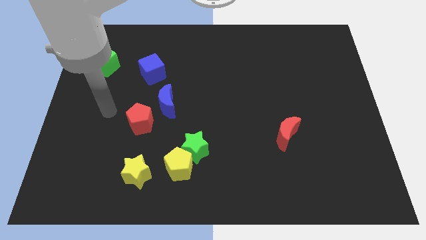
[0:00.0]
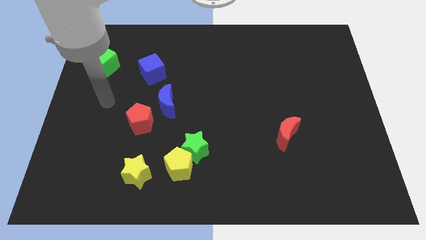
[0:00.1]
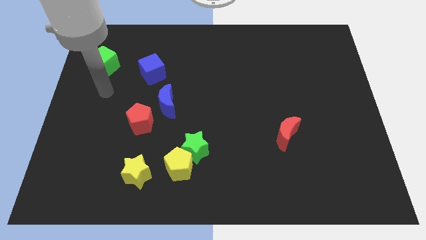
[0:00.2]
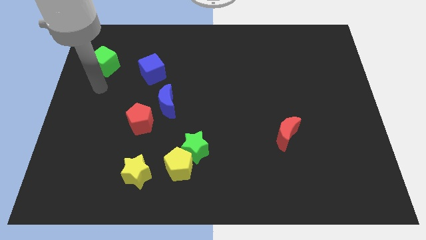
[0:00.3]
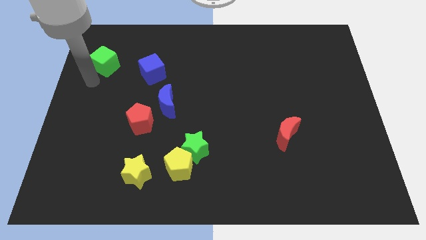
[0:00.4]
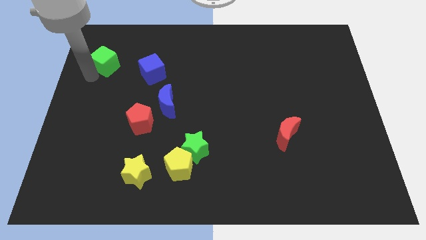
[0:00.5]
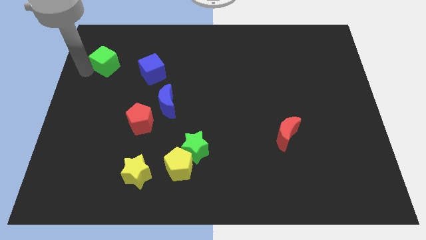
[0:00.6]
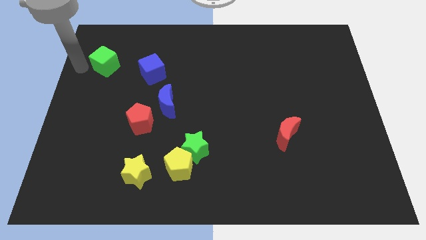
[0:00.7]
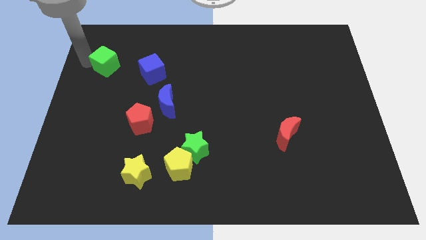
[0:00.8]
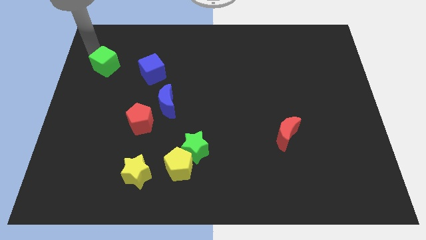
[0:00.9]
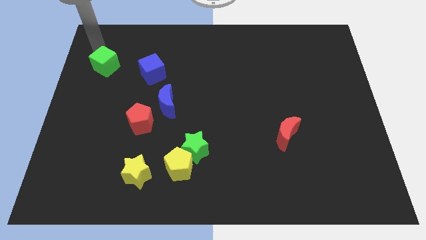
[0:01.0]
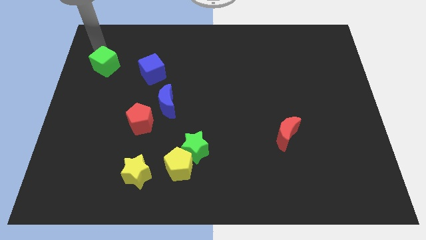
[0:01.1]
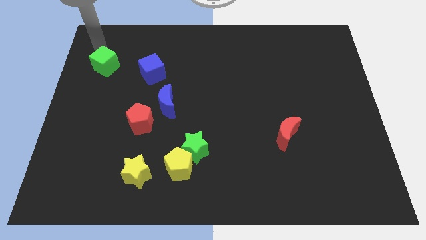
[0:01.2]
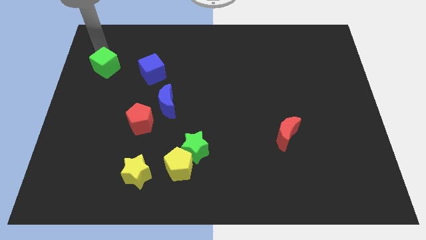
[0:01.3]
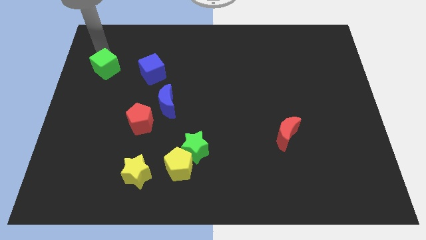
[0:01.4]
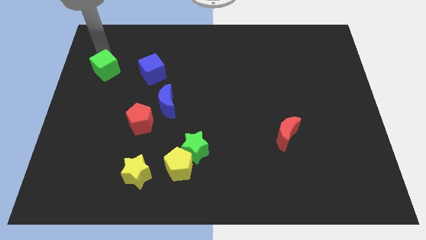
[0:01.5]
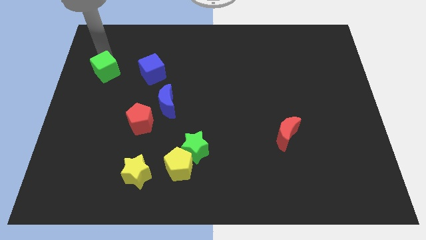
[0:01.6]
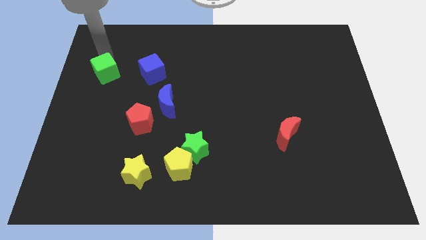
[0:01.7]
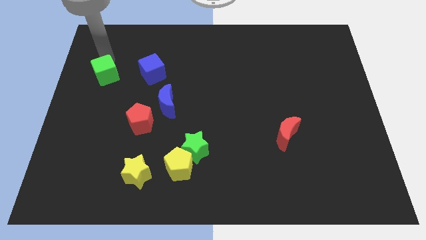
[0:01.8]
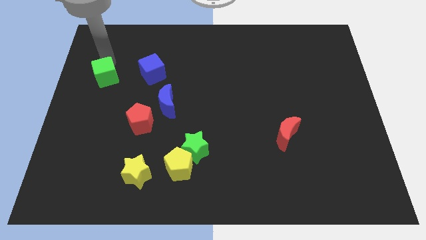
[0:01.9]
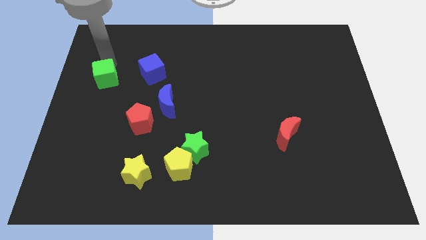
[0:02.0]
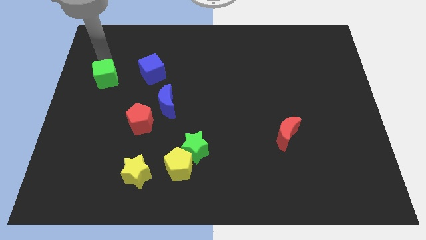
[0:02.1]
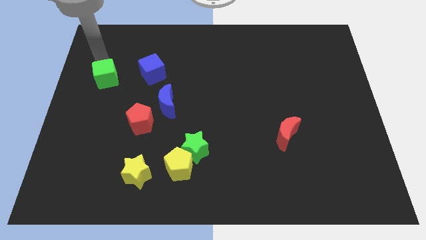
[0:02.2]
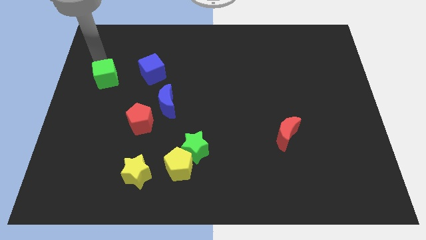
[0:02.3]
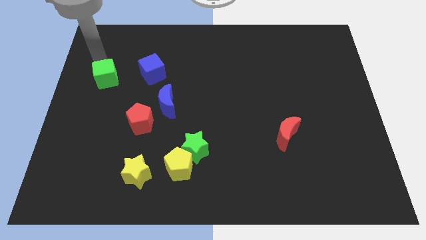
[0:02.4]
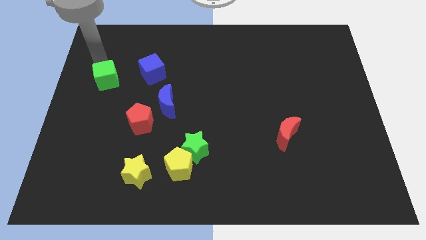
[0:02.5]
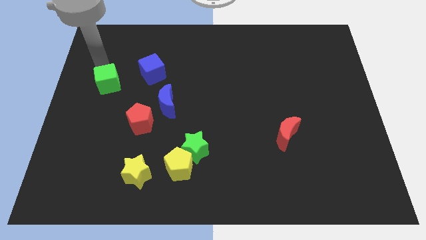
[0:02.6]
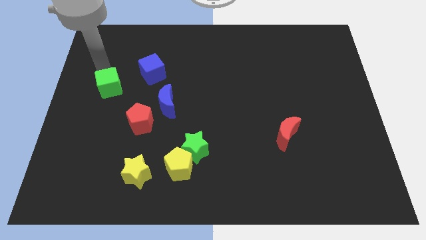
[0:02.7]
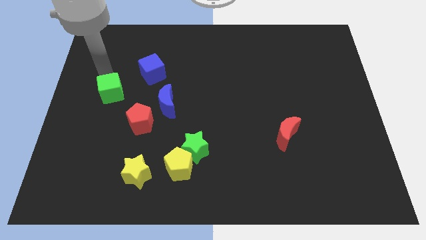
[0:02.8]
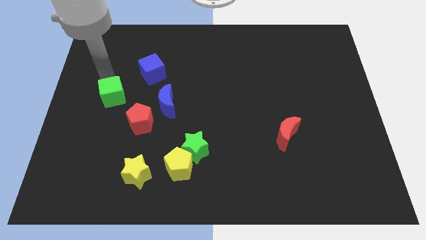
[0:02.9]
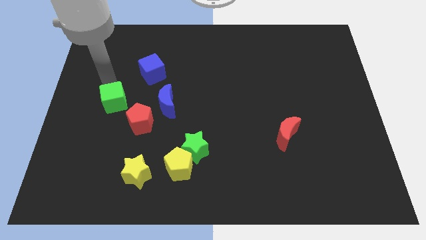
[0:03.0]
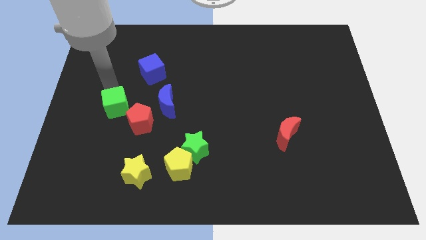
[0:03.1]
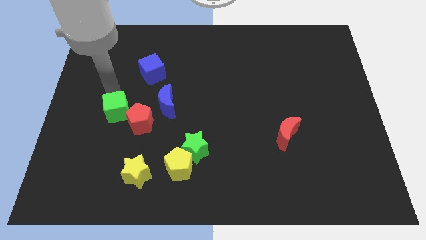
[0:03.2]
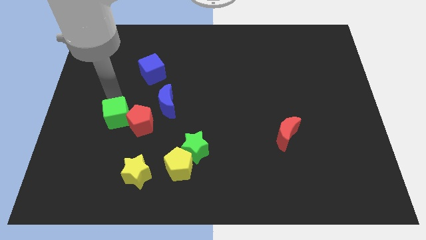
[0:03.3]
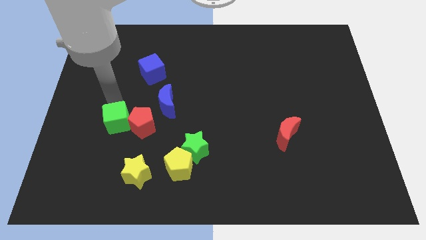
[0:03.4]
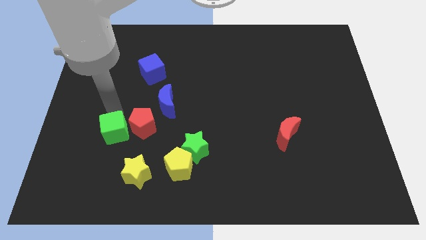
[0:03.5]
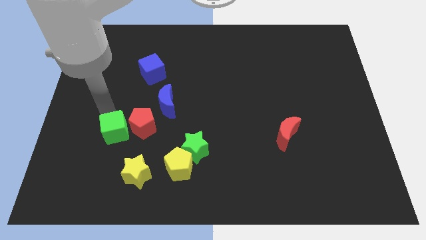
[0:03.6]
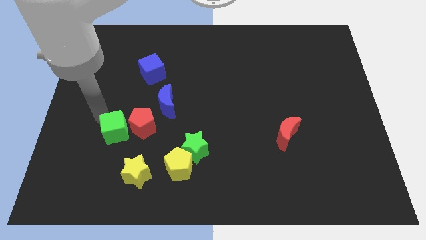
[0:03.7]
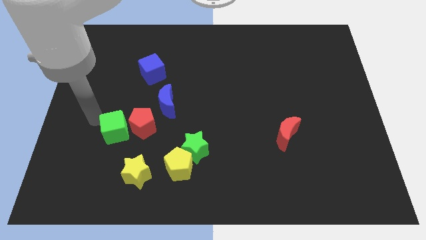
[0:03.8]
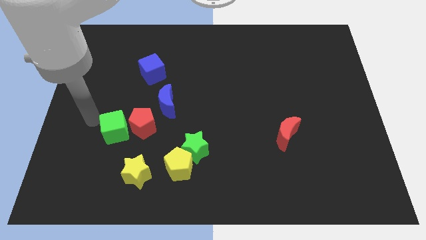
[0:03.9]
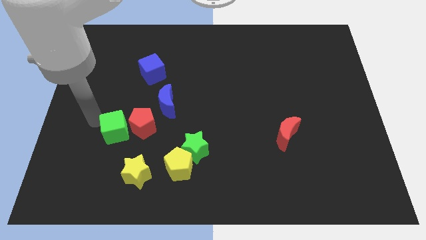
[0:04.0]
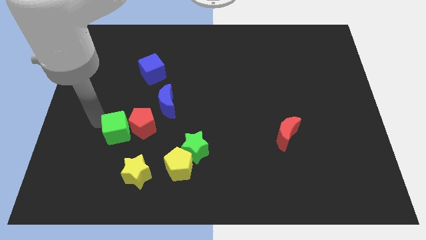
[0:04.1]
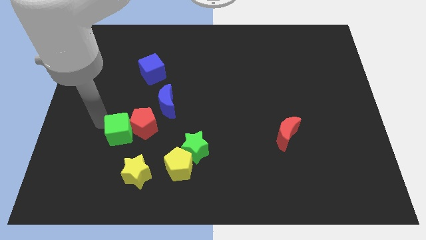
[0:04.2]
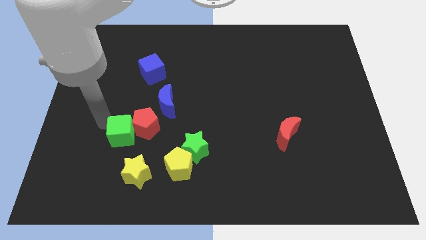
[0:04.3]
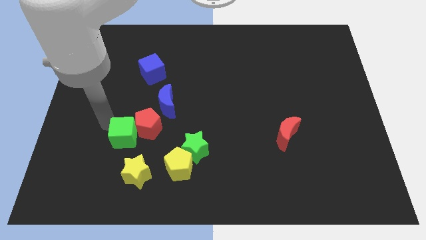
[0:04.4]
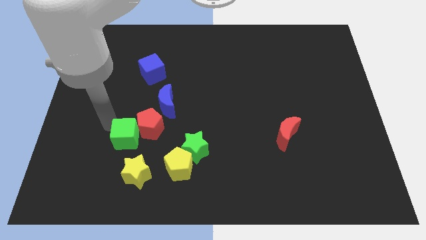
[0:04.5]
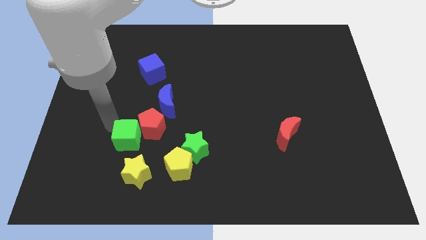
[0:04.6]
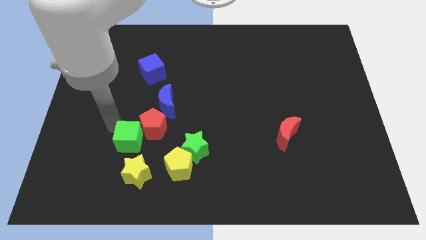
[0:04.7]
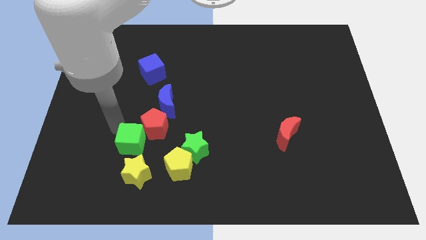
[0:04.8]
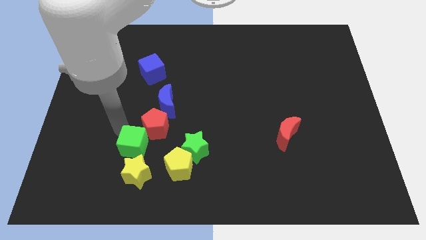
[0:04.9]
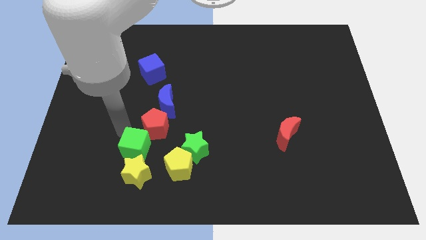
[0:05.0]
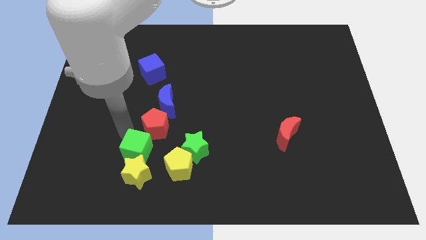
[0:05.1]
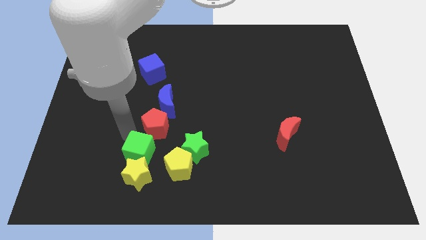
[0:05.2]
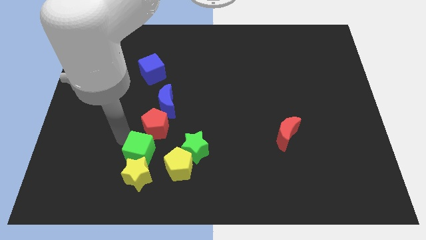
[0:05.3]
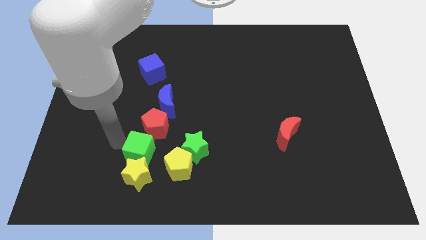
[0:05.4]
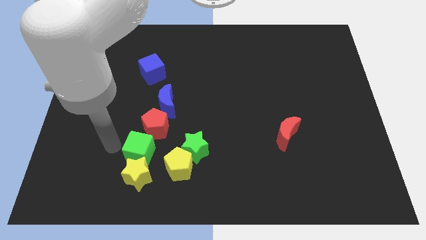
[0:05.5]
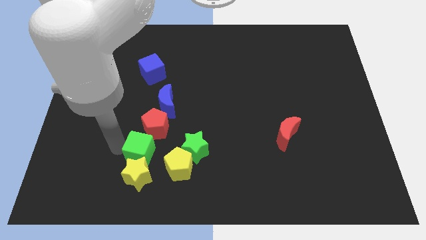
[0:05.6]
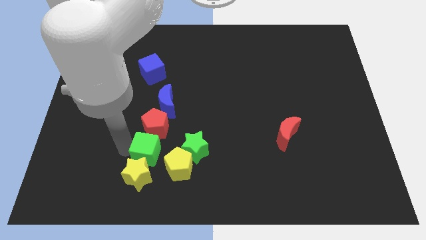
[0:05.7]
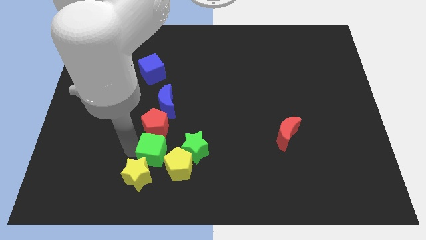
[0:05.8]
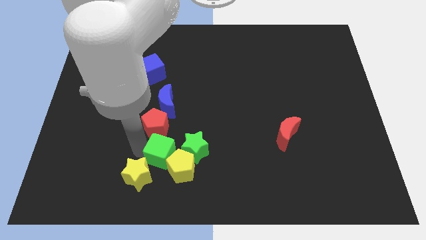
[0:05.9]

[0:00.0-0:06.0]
move the green cube close to the yellow pentagon

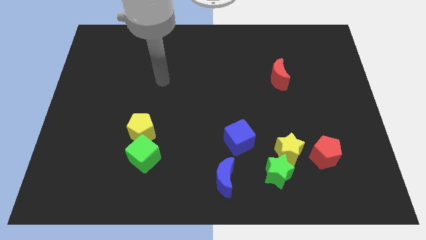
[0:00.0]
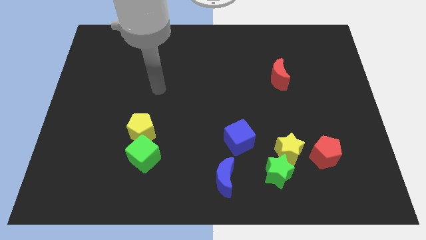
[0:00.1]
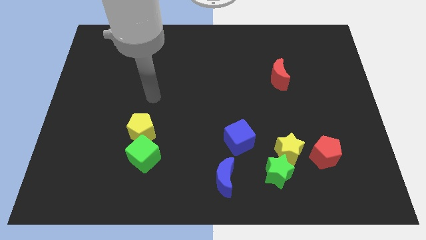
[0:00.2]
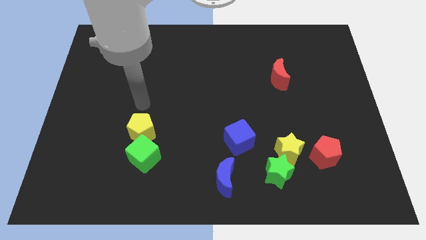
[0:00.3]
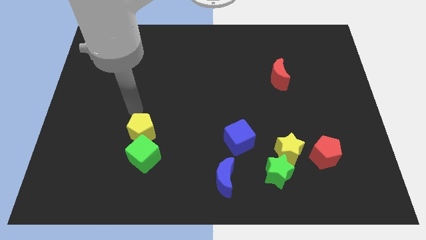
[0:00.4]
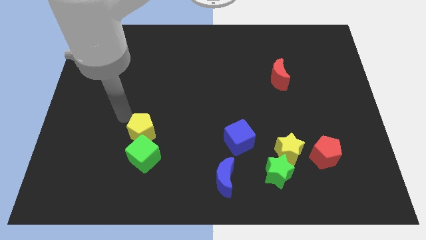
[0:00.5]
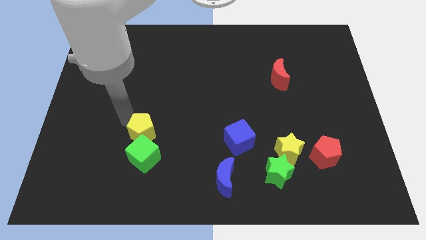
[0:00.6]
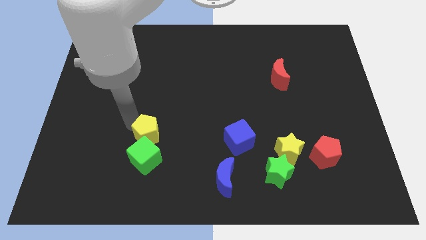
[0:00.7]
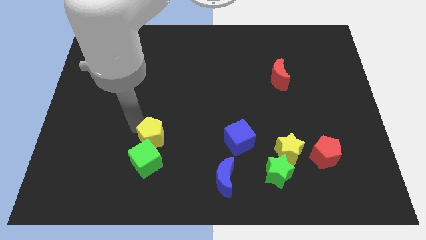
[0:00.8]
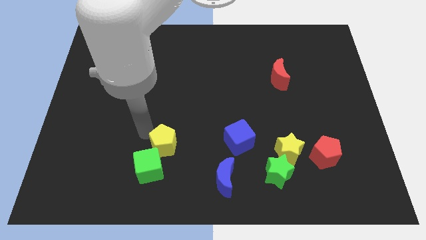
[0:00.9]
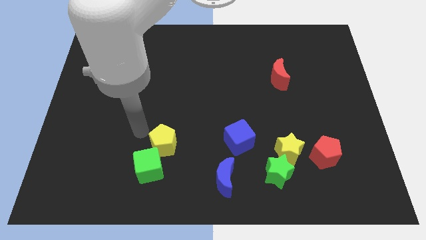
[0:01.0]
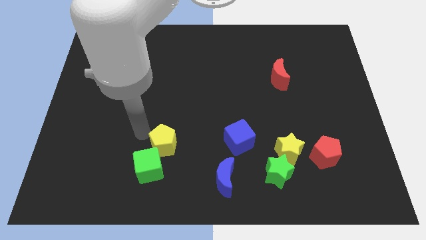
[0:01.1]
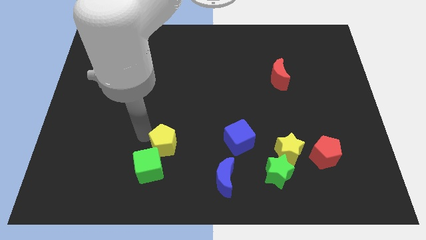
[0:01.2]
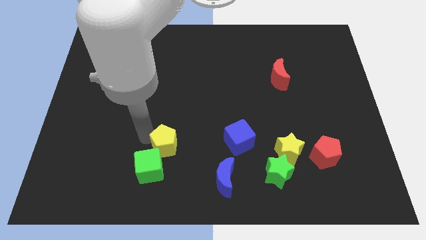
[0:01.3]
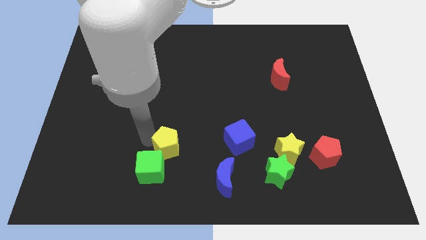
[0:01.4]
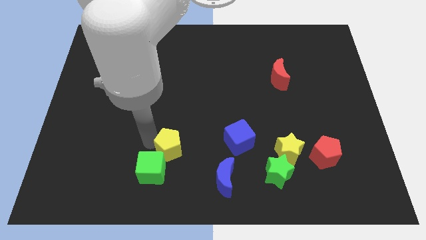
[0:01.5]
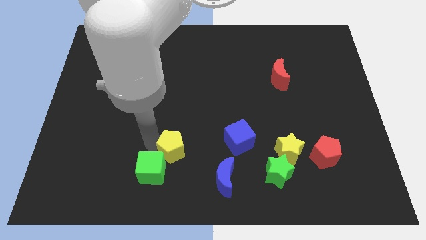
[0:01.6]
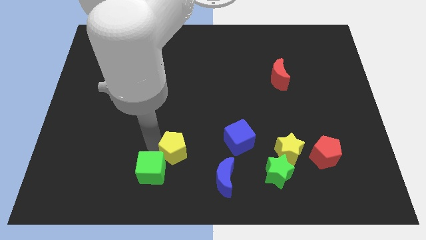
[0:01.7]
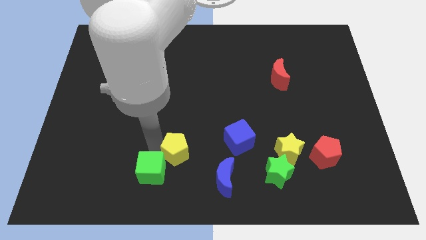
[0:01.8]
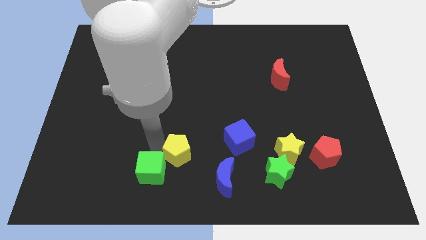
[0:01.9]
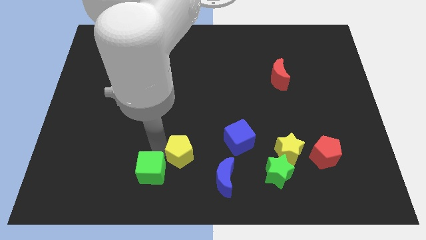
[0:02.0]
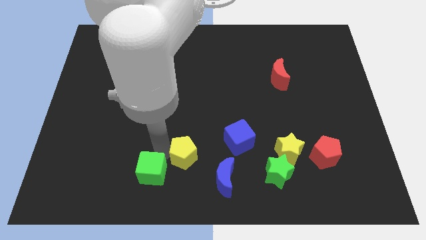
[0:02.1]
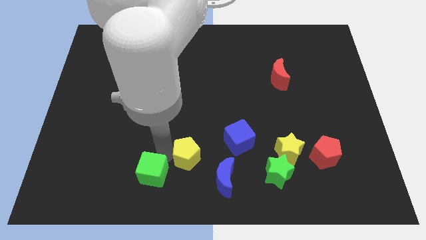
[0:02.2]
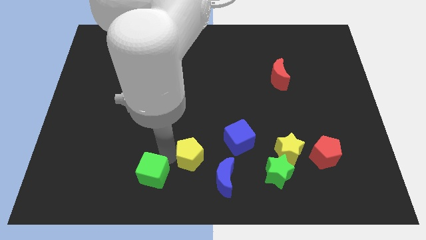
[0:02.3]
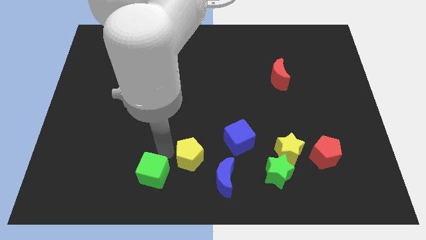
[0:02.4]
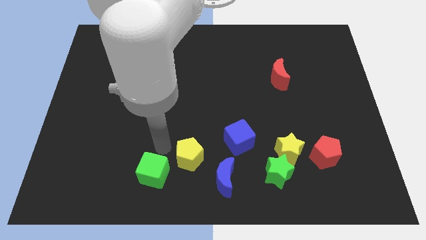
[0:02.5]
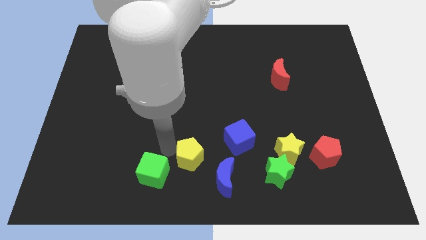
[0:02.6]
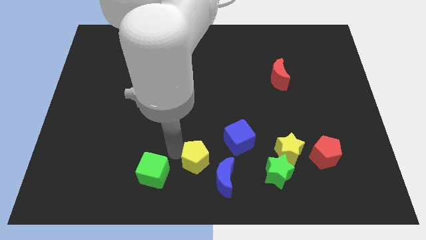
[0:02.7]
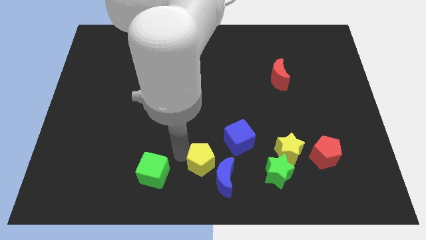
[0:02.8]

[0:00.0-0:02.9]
put the yellow pentagon to the blue moon
